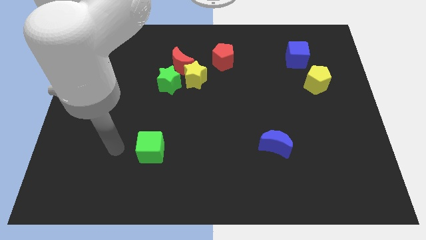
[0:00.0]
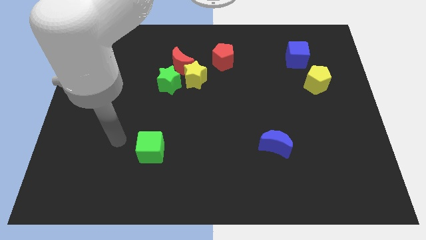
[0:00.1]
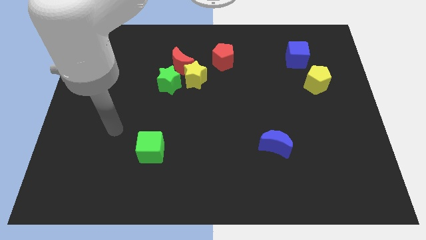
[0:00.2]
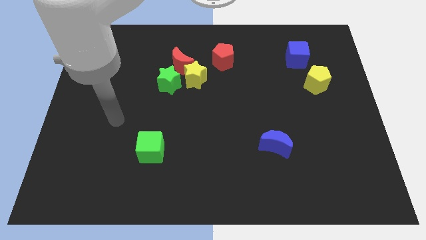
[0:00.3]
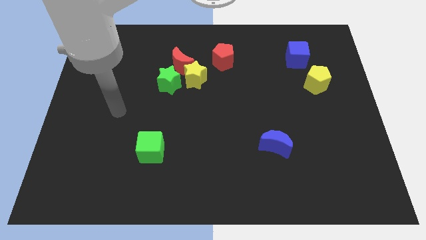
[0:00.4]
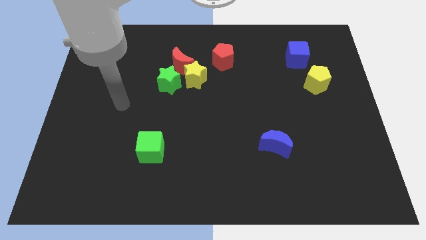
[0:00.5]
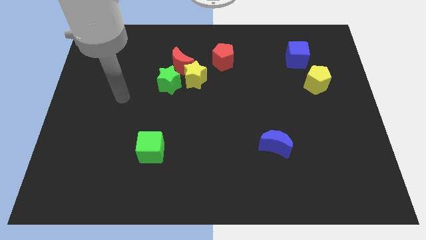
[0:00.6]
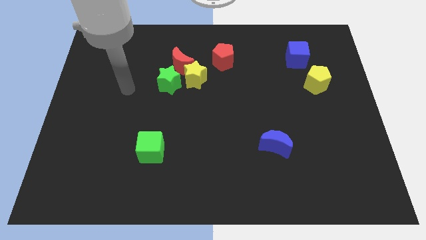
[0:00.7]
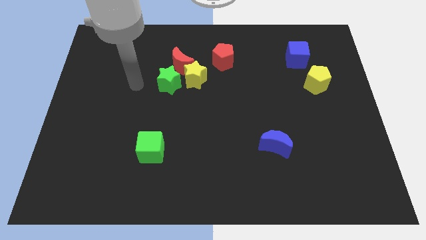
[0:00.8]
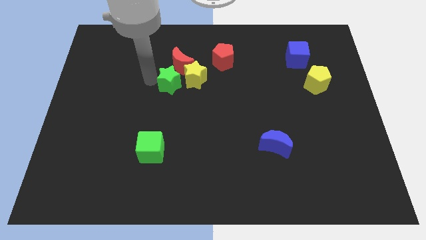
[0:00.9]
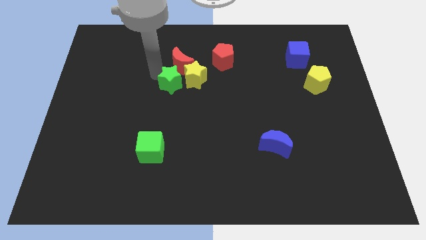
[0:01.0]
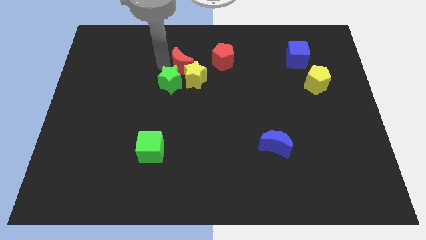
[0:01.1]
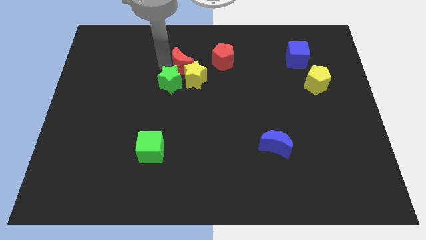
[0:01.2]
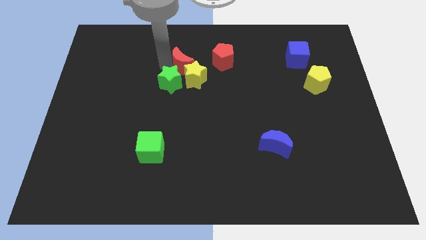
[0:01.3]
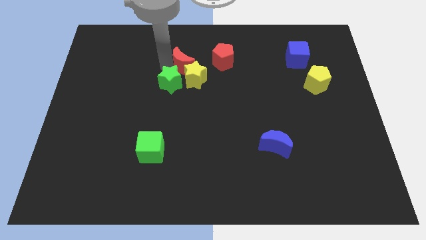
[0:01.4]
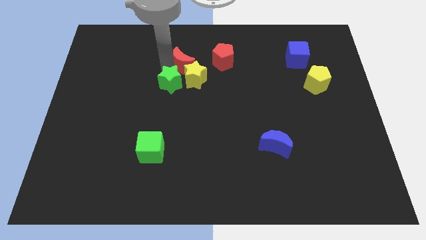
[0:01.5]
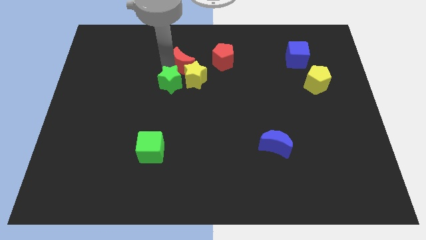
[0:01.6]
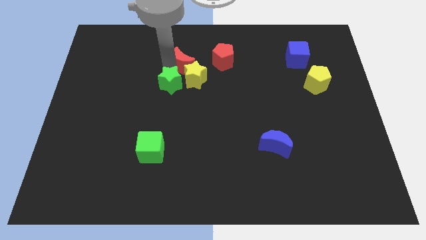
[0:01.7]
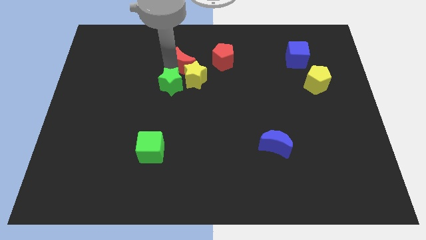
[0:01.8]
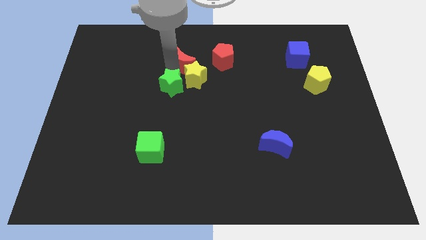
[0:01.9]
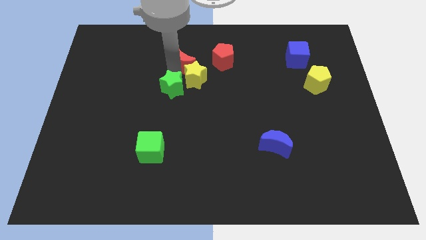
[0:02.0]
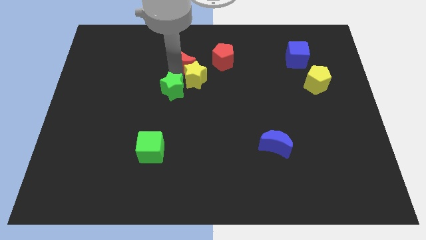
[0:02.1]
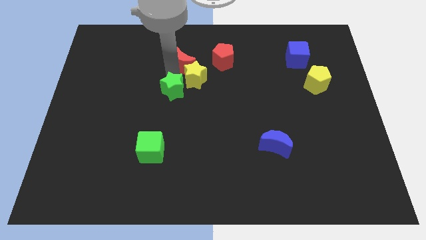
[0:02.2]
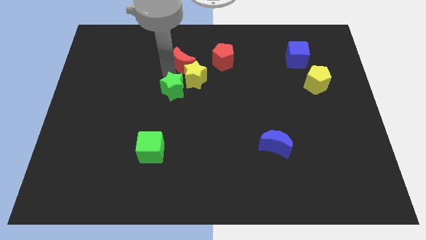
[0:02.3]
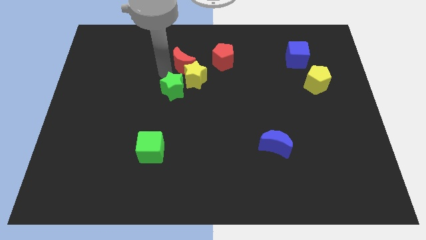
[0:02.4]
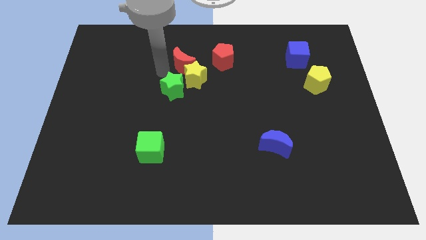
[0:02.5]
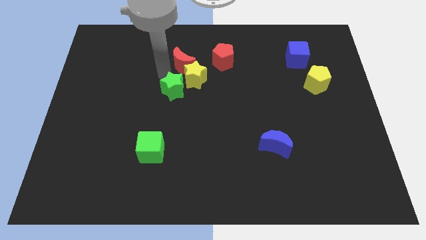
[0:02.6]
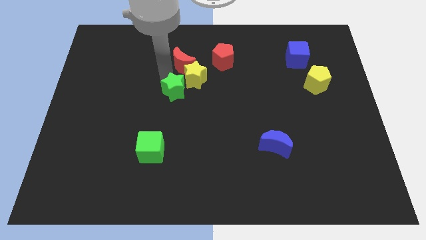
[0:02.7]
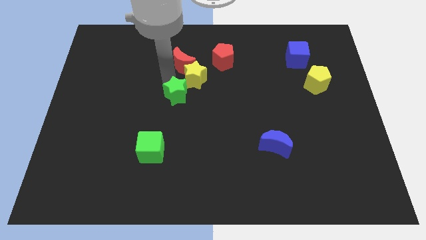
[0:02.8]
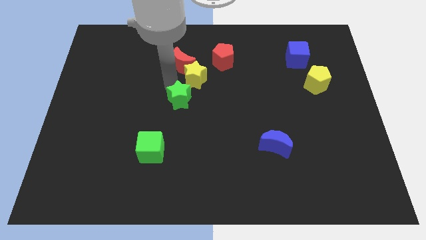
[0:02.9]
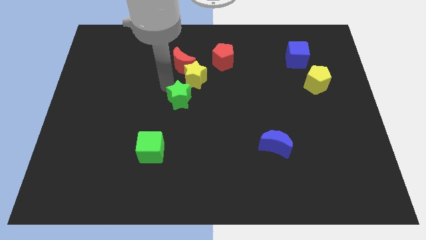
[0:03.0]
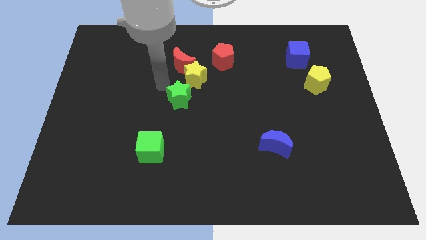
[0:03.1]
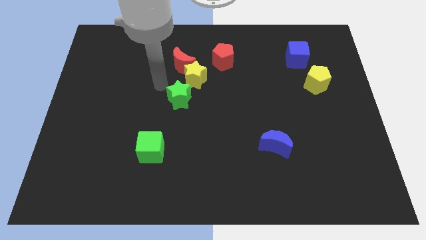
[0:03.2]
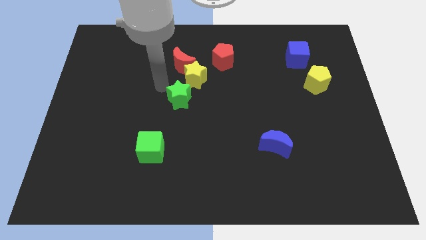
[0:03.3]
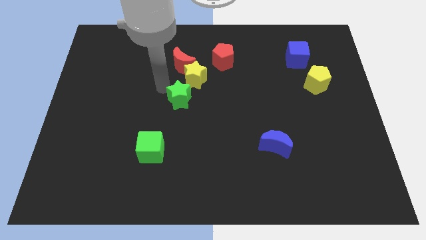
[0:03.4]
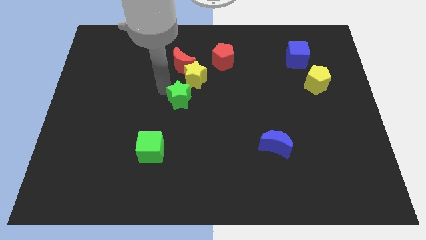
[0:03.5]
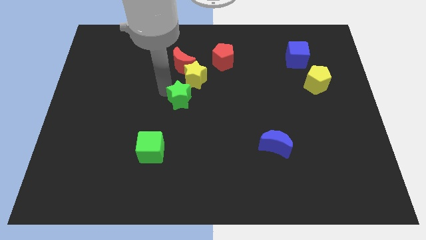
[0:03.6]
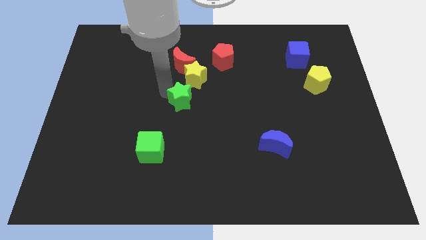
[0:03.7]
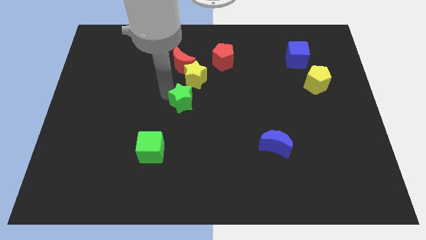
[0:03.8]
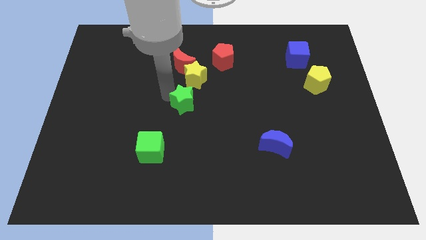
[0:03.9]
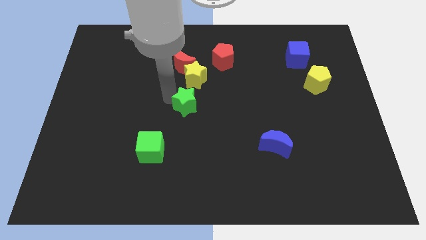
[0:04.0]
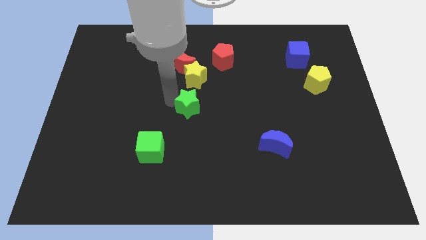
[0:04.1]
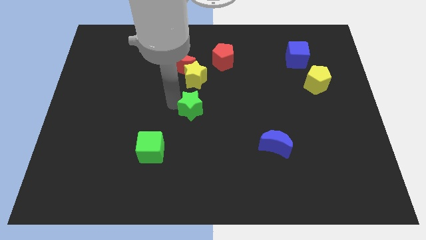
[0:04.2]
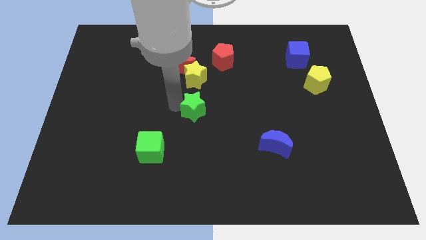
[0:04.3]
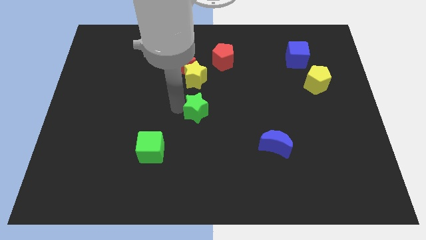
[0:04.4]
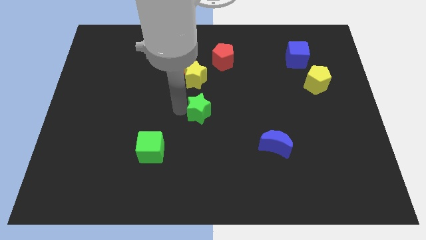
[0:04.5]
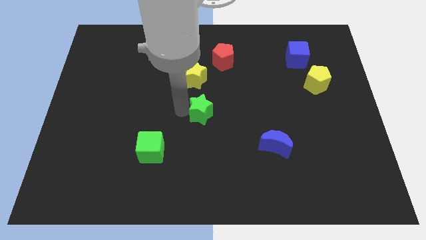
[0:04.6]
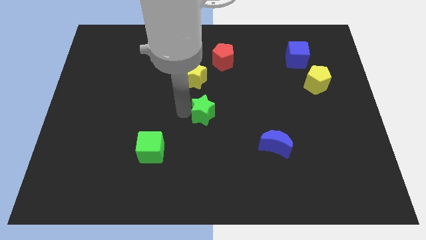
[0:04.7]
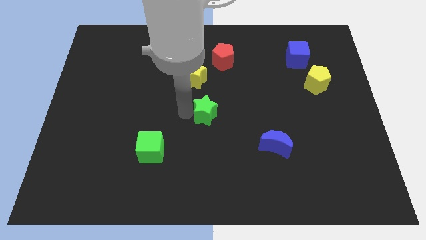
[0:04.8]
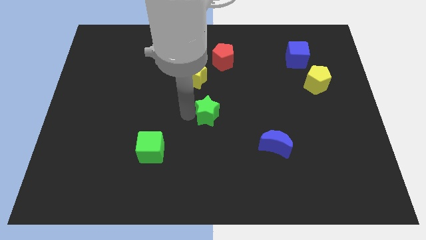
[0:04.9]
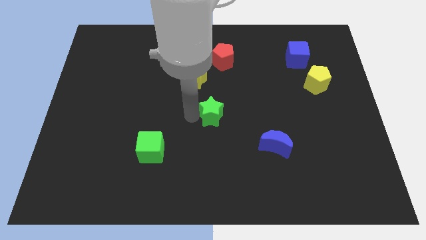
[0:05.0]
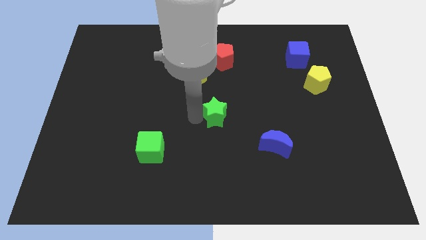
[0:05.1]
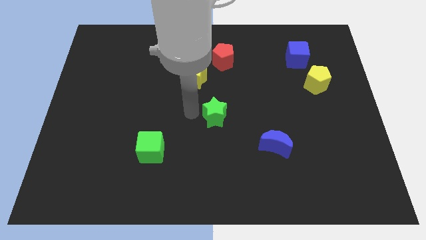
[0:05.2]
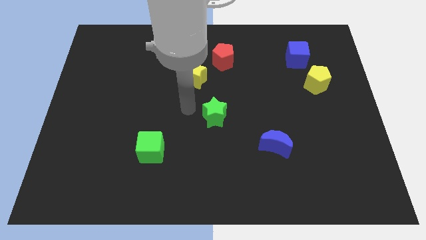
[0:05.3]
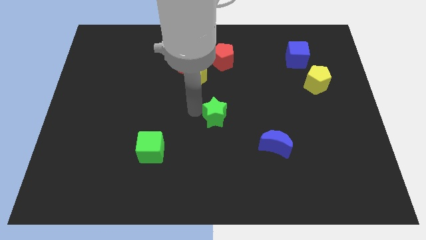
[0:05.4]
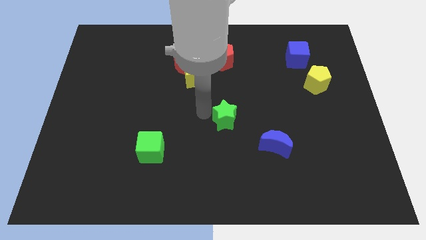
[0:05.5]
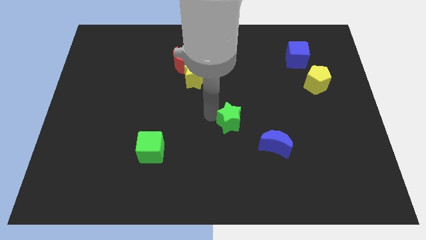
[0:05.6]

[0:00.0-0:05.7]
put the green star to the top left side of the blue moon

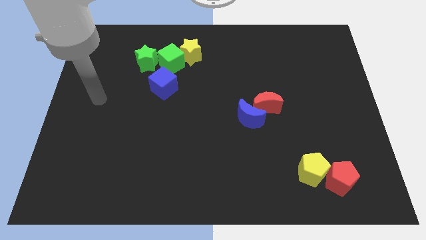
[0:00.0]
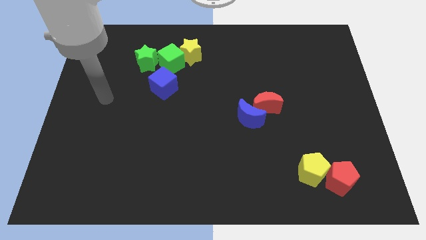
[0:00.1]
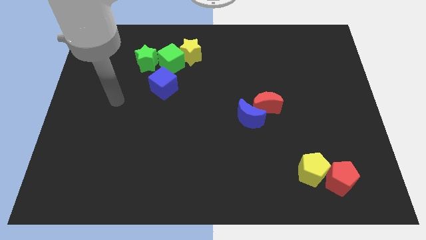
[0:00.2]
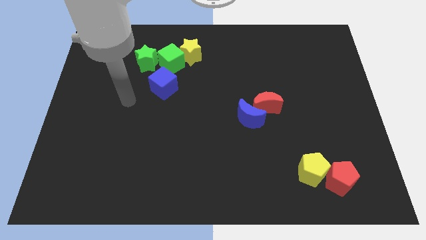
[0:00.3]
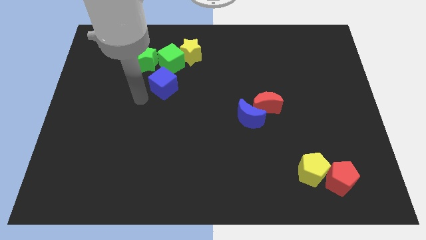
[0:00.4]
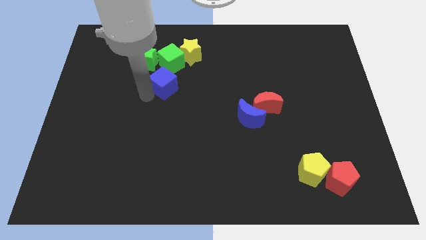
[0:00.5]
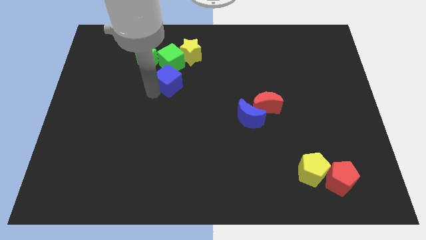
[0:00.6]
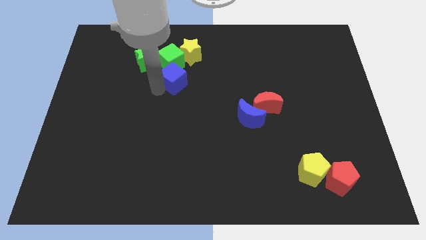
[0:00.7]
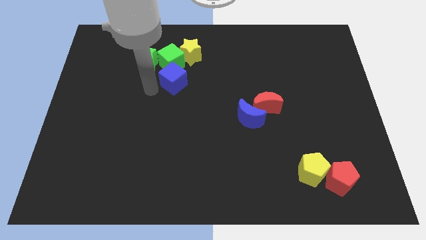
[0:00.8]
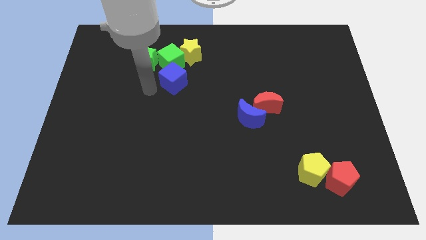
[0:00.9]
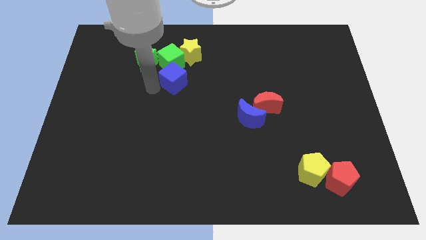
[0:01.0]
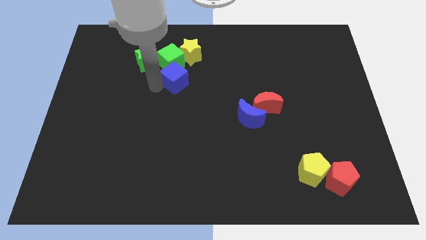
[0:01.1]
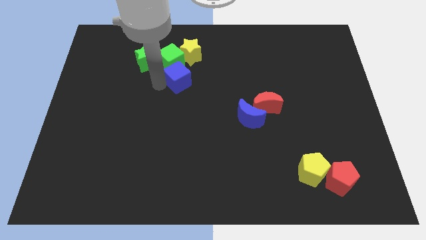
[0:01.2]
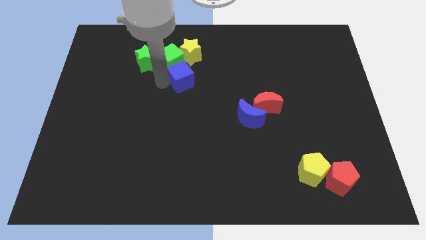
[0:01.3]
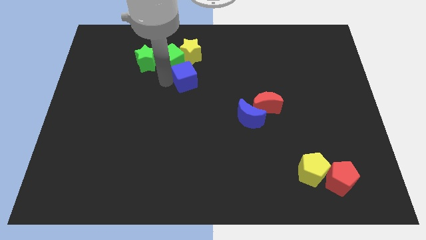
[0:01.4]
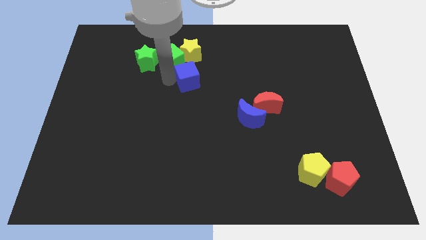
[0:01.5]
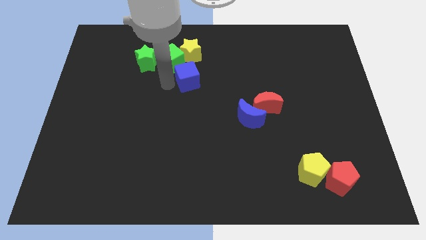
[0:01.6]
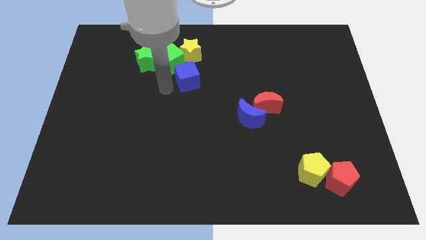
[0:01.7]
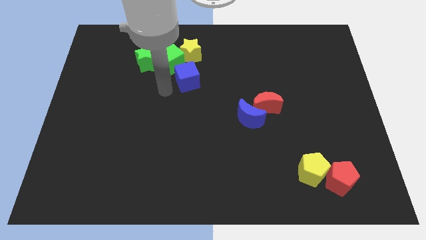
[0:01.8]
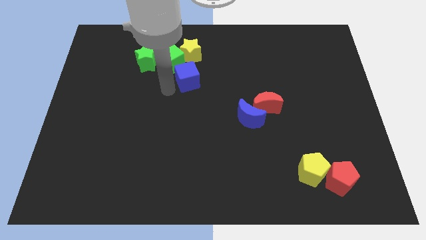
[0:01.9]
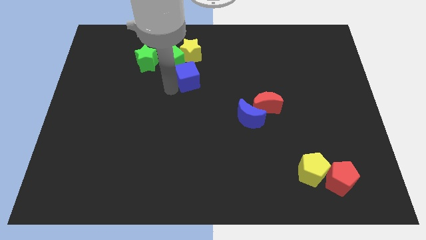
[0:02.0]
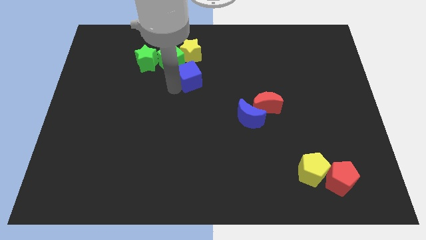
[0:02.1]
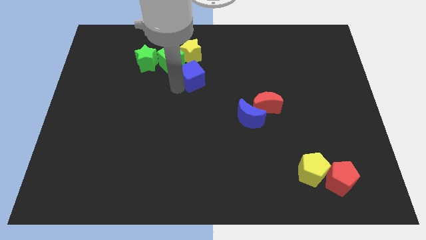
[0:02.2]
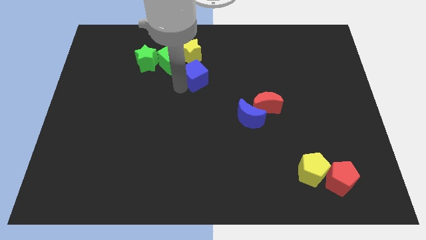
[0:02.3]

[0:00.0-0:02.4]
put the blue cube diagonally down and to the right of the yellow star
